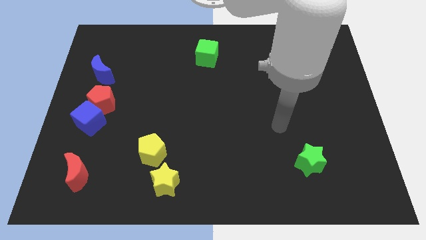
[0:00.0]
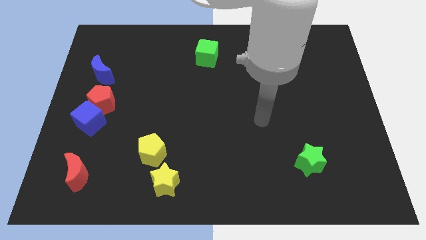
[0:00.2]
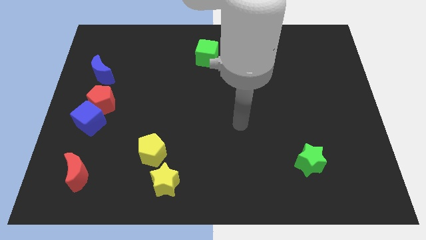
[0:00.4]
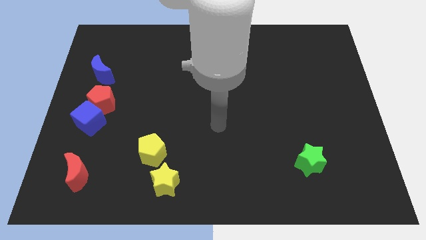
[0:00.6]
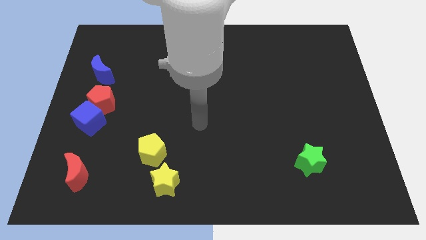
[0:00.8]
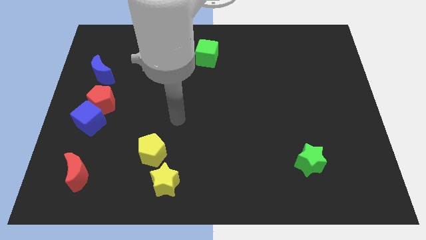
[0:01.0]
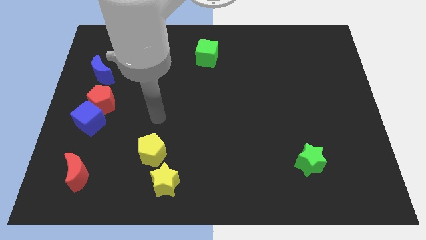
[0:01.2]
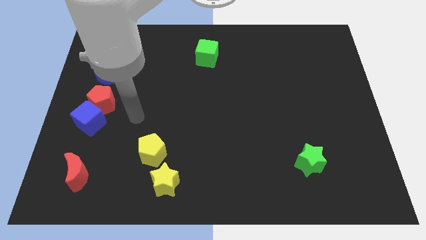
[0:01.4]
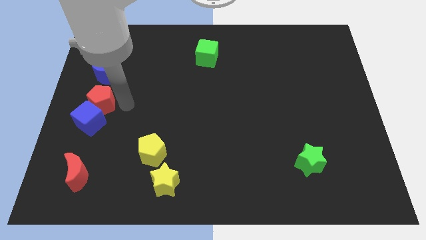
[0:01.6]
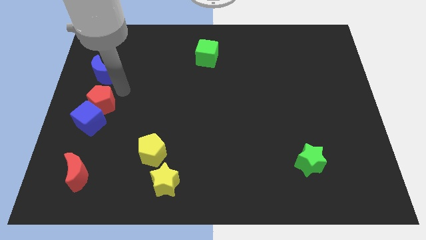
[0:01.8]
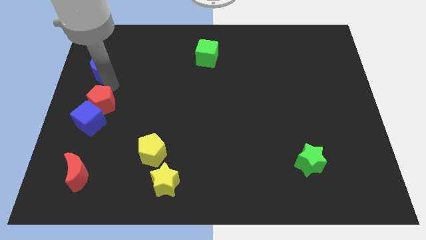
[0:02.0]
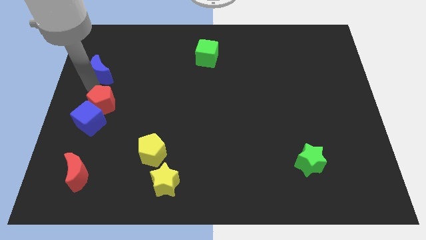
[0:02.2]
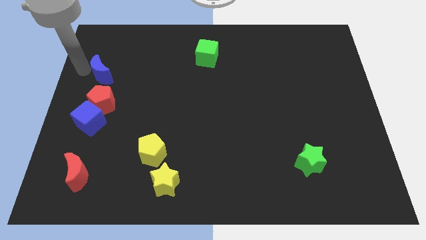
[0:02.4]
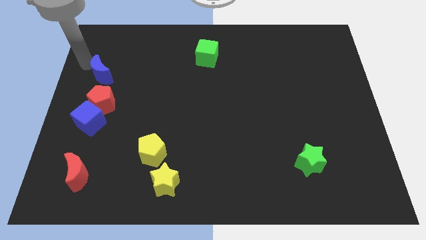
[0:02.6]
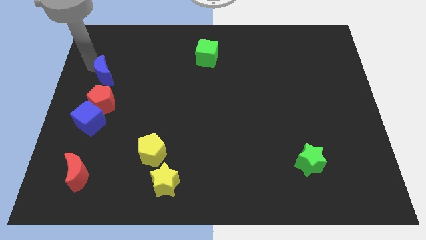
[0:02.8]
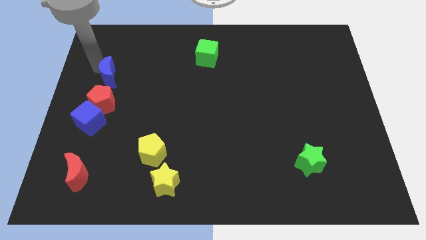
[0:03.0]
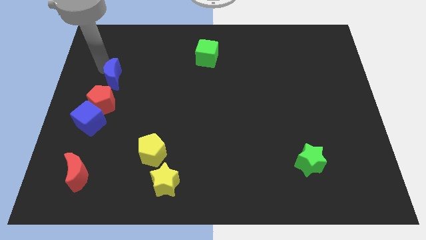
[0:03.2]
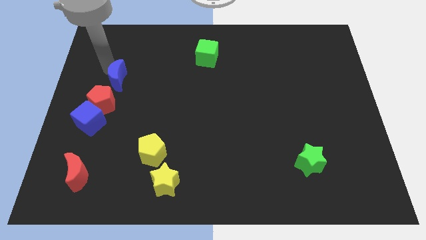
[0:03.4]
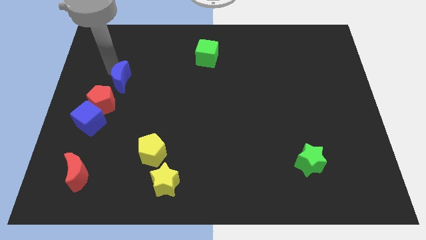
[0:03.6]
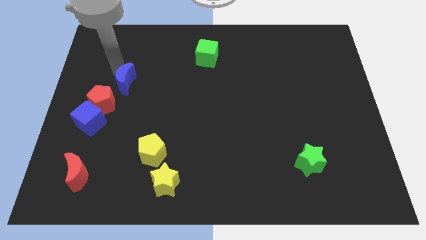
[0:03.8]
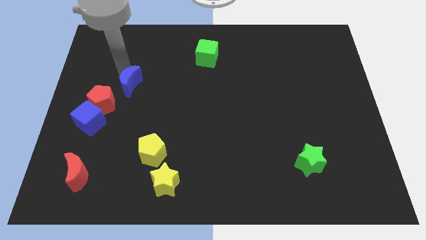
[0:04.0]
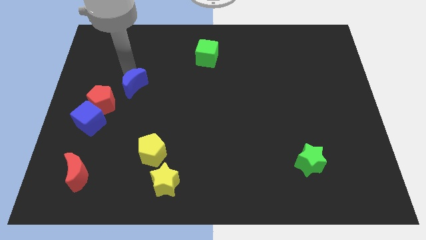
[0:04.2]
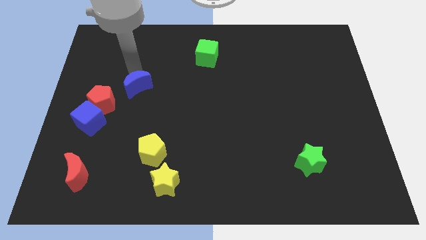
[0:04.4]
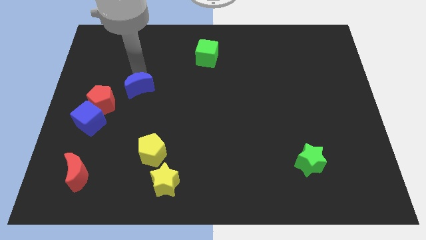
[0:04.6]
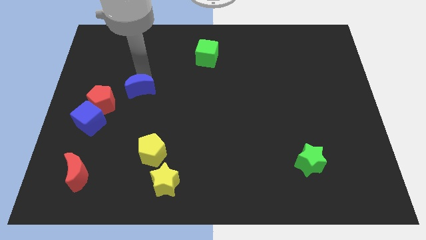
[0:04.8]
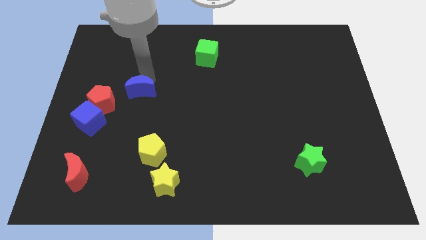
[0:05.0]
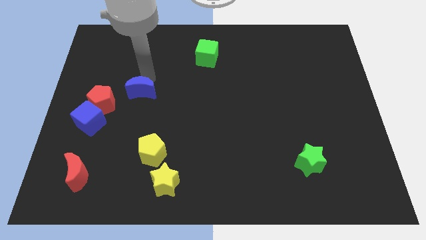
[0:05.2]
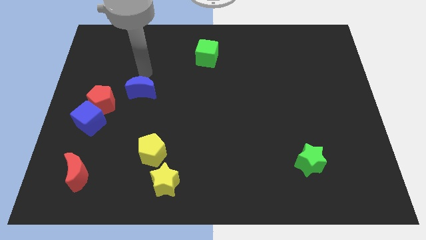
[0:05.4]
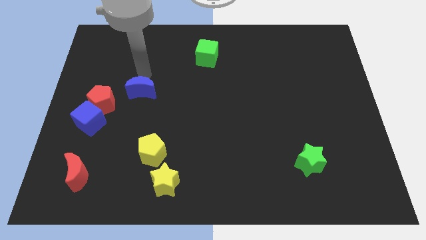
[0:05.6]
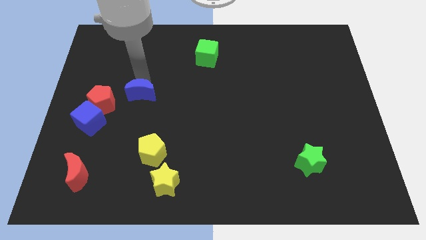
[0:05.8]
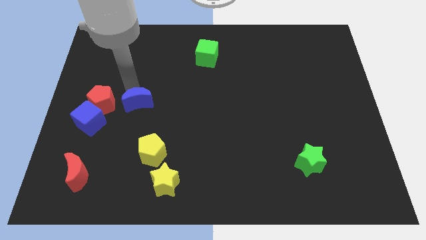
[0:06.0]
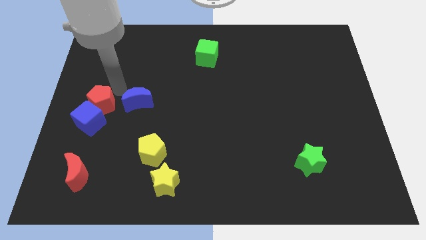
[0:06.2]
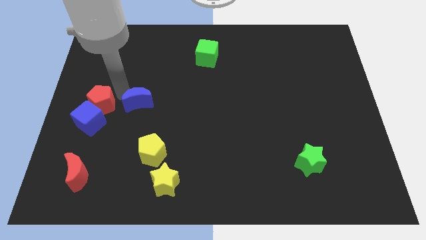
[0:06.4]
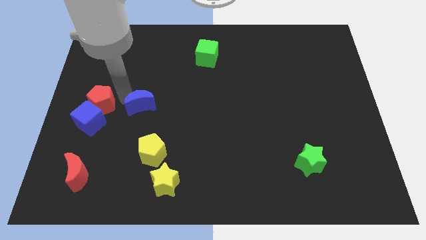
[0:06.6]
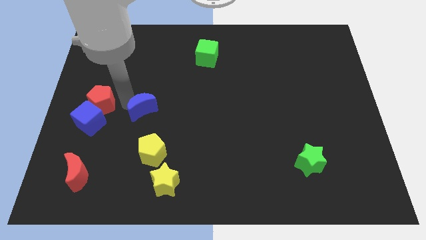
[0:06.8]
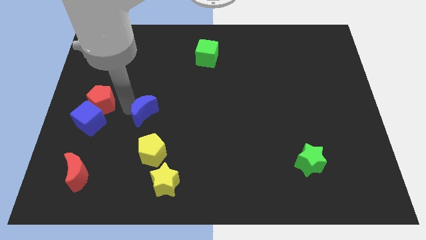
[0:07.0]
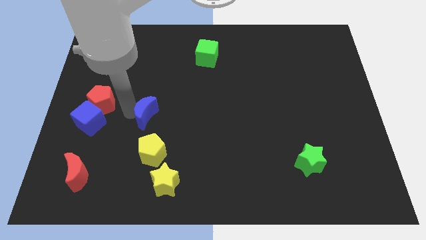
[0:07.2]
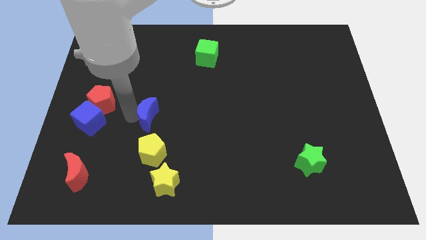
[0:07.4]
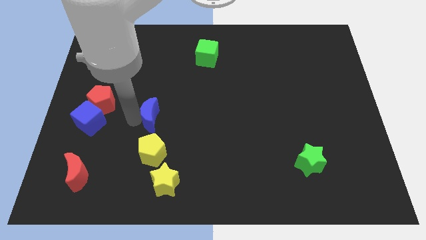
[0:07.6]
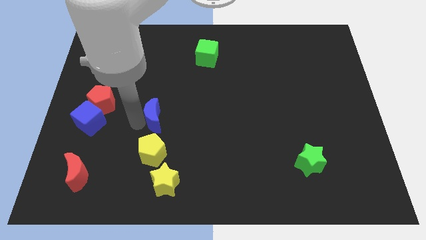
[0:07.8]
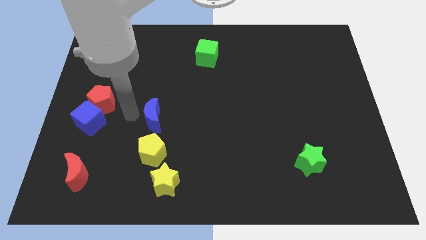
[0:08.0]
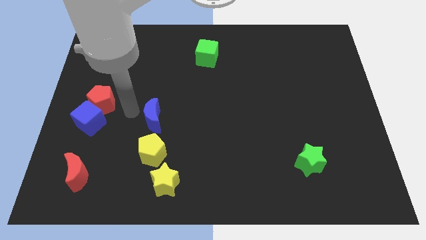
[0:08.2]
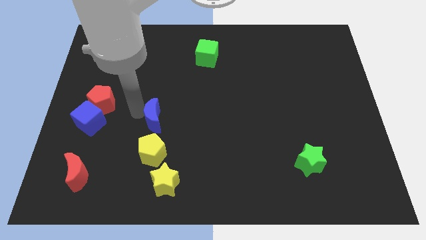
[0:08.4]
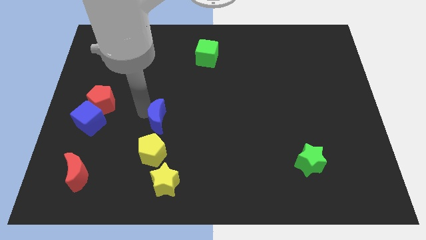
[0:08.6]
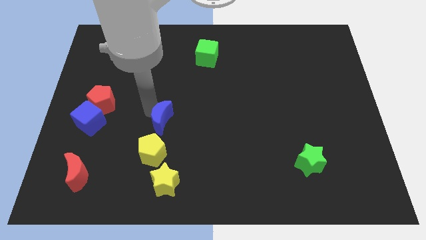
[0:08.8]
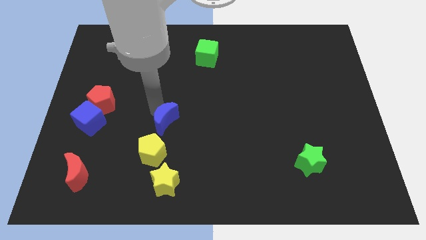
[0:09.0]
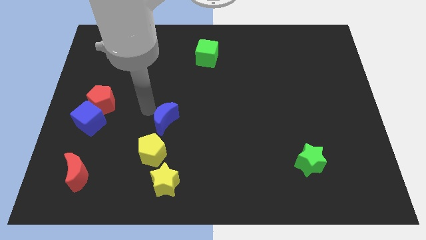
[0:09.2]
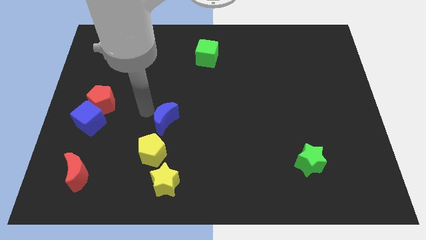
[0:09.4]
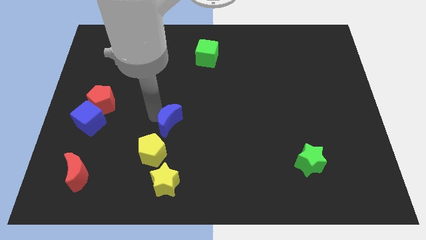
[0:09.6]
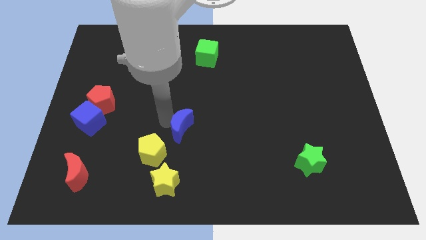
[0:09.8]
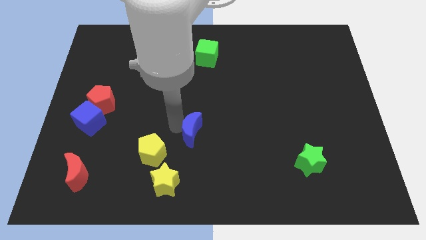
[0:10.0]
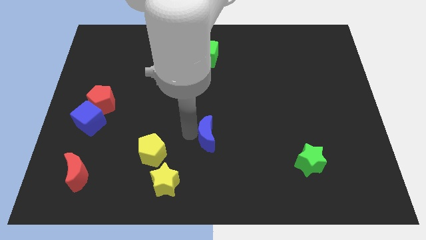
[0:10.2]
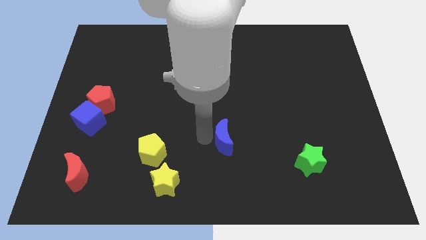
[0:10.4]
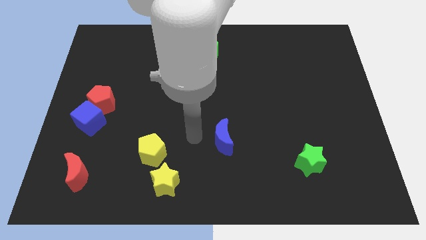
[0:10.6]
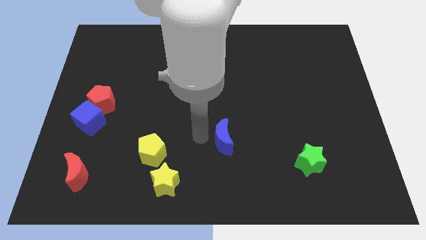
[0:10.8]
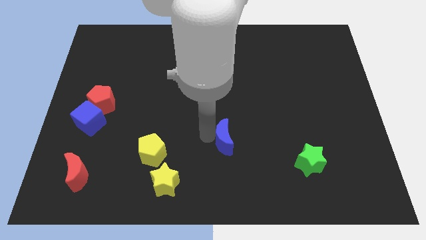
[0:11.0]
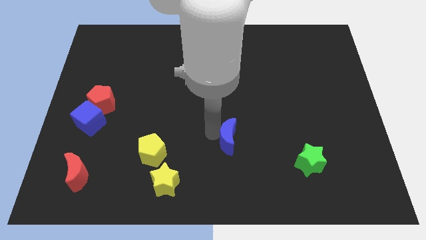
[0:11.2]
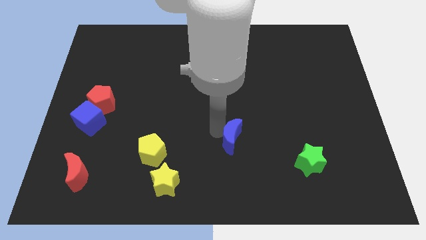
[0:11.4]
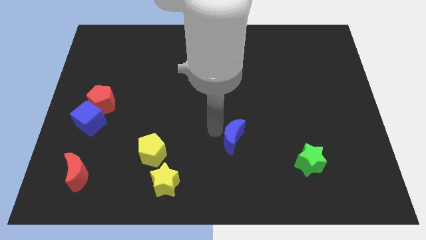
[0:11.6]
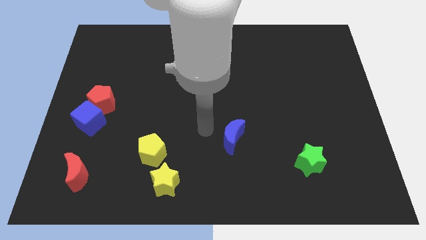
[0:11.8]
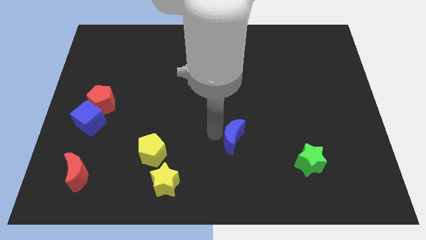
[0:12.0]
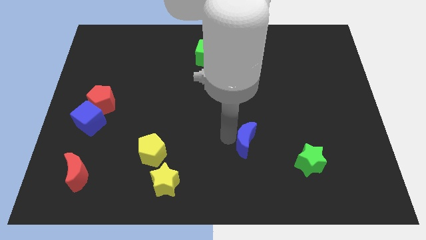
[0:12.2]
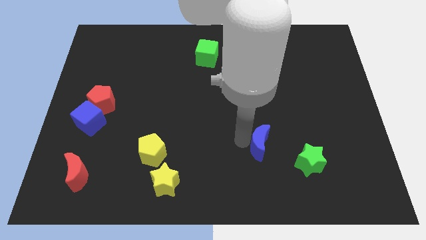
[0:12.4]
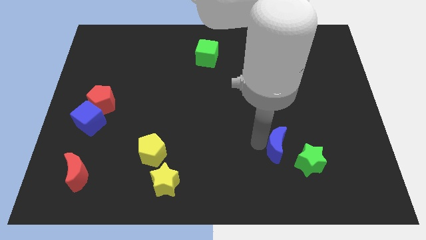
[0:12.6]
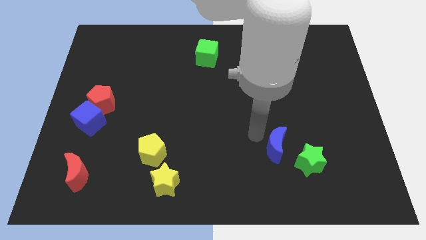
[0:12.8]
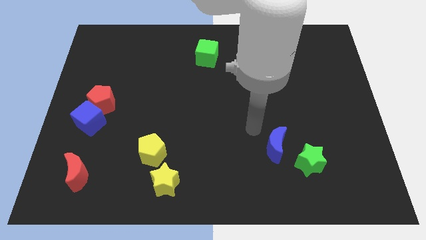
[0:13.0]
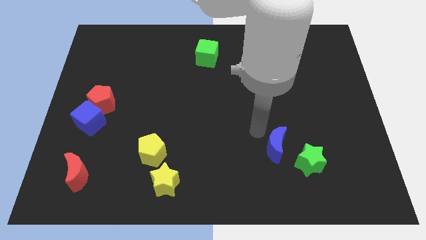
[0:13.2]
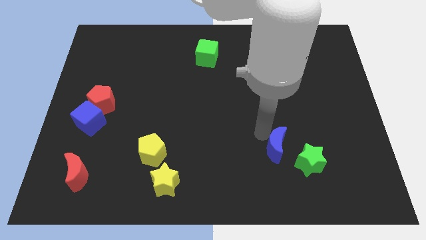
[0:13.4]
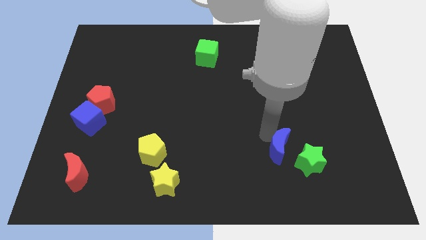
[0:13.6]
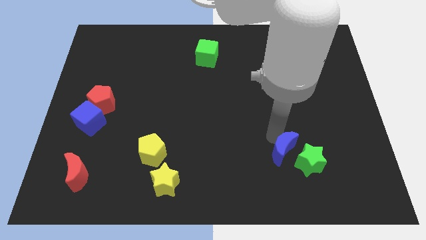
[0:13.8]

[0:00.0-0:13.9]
push the blue moon close to the green star
